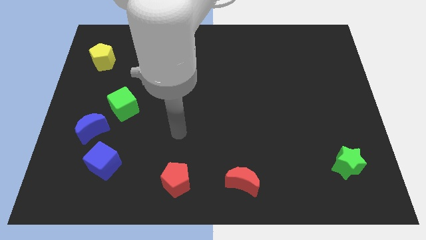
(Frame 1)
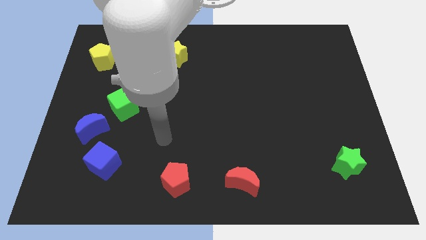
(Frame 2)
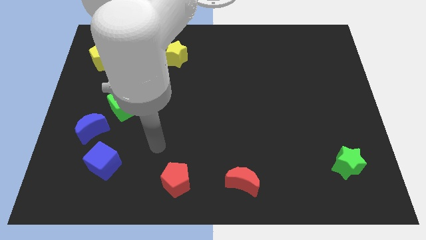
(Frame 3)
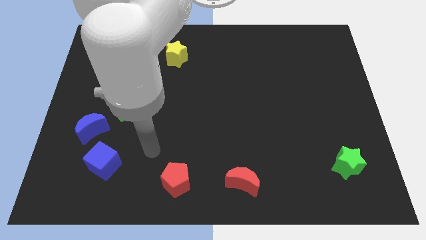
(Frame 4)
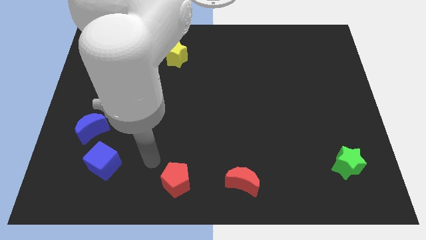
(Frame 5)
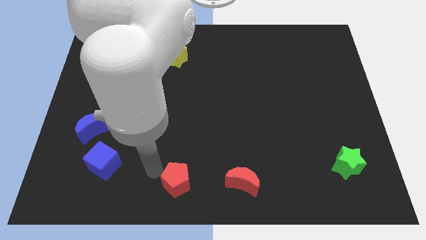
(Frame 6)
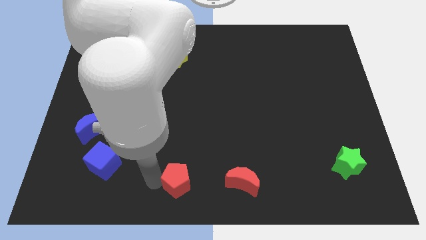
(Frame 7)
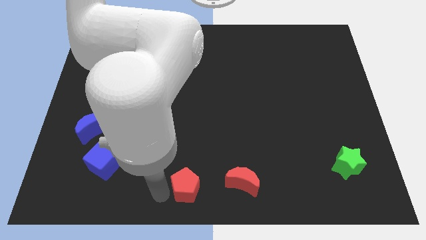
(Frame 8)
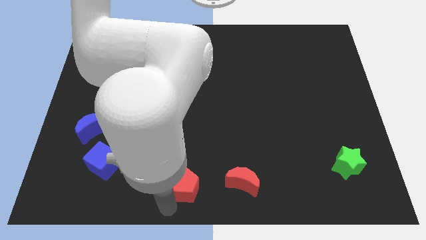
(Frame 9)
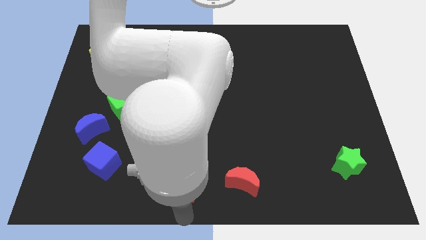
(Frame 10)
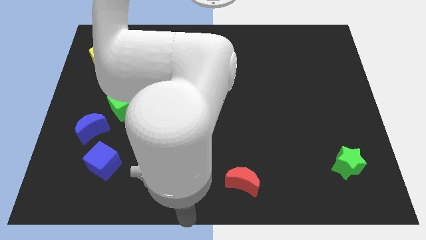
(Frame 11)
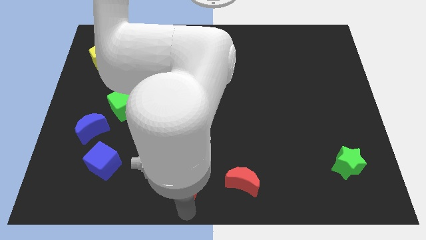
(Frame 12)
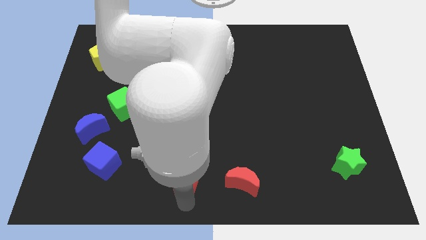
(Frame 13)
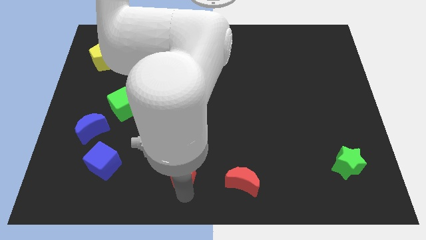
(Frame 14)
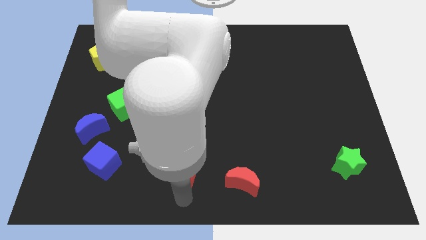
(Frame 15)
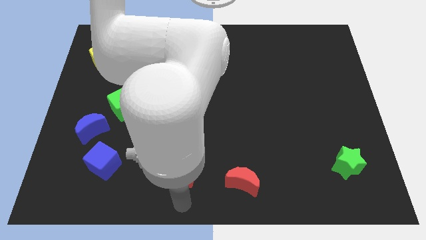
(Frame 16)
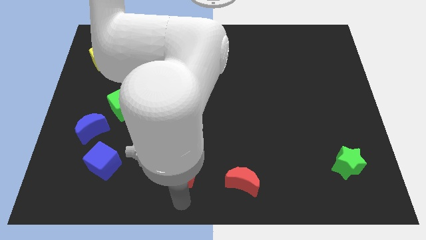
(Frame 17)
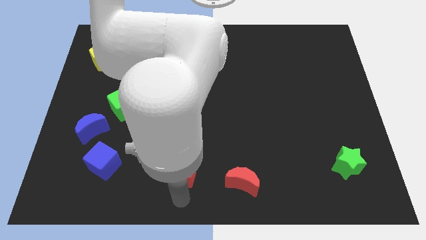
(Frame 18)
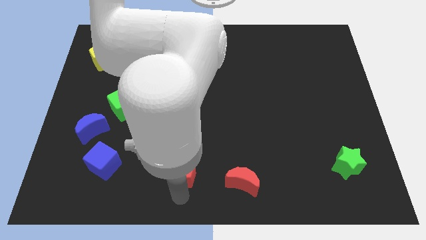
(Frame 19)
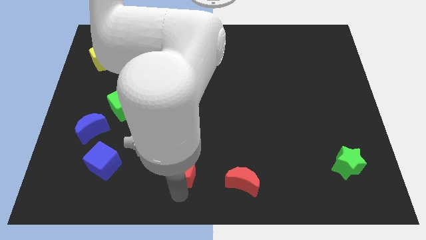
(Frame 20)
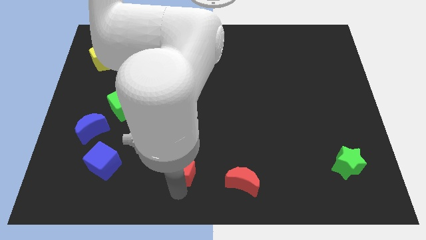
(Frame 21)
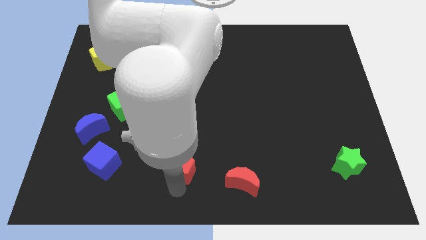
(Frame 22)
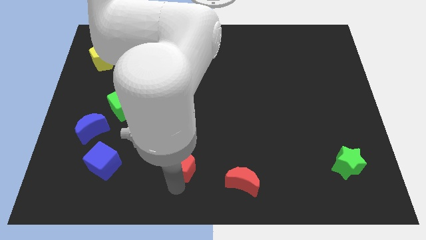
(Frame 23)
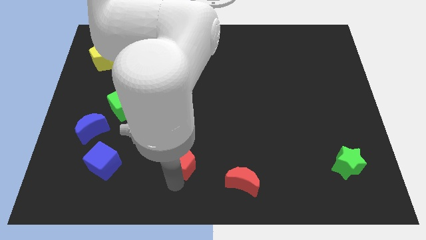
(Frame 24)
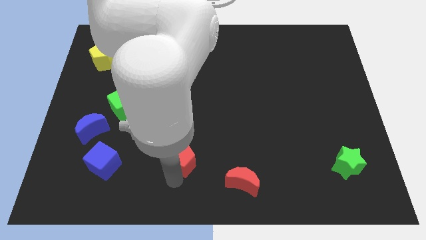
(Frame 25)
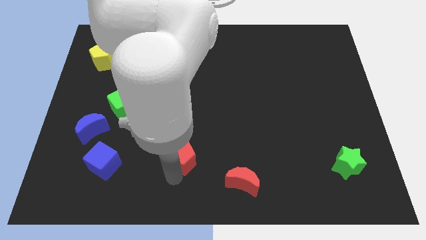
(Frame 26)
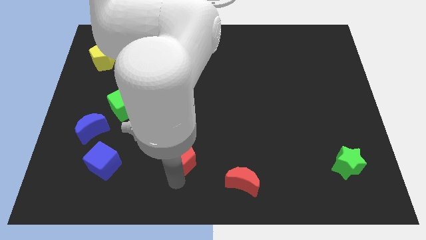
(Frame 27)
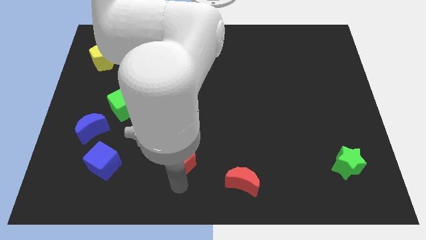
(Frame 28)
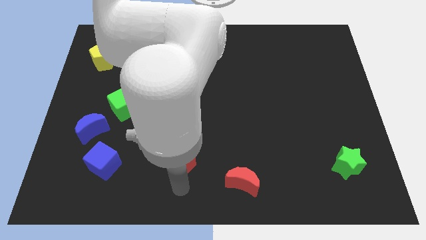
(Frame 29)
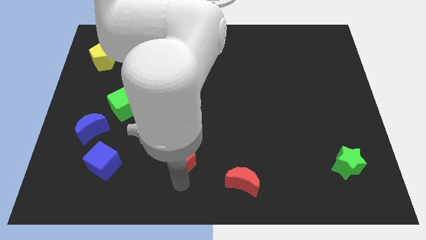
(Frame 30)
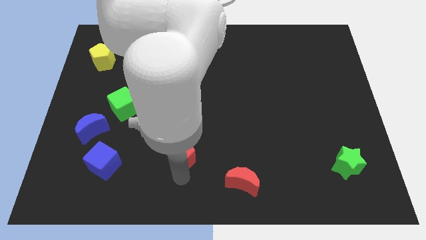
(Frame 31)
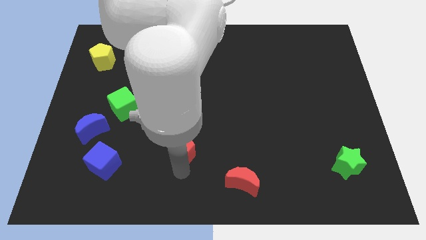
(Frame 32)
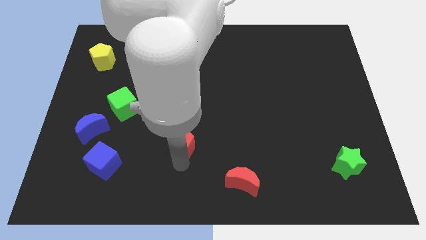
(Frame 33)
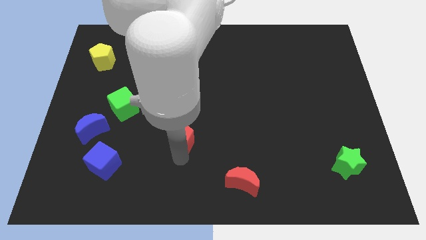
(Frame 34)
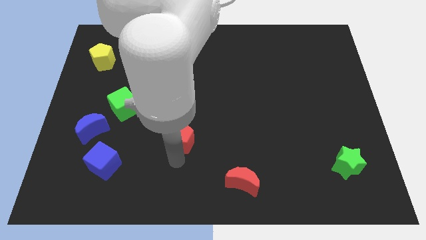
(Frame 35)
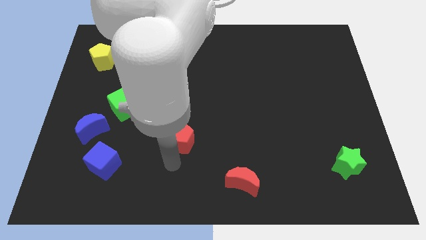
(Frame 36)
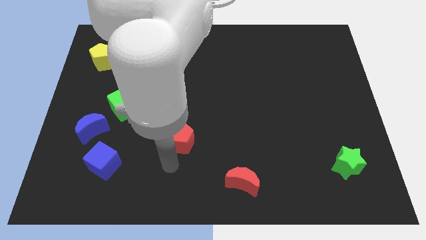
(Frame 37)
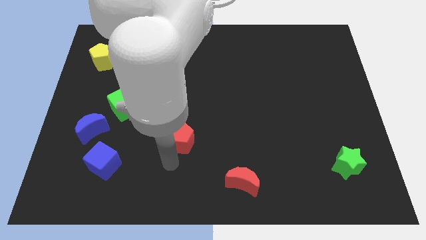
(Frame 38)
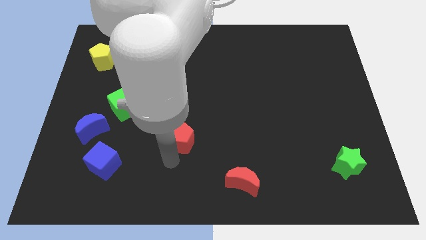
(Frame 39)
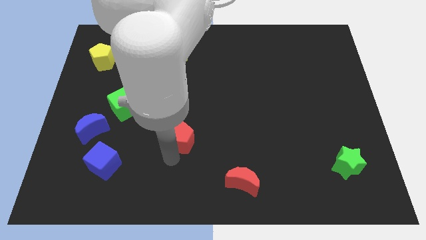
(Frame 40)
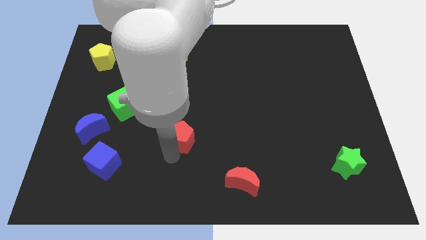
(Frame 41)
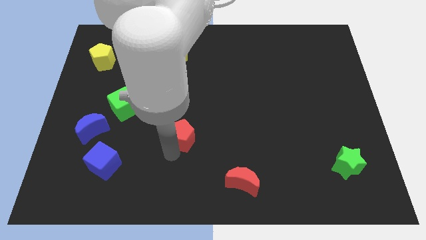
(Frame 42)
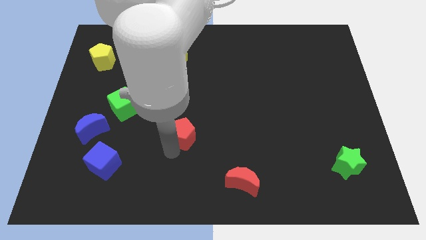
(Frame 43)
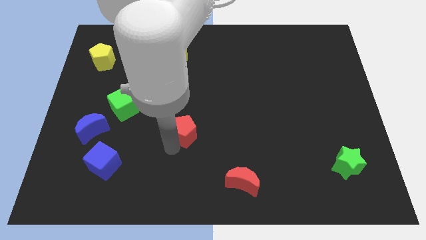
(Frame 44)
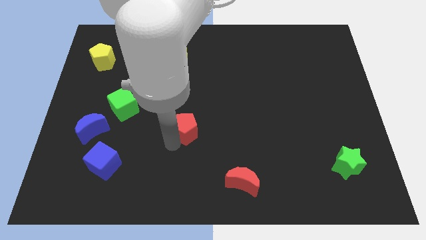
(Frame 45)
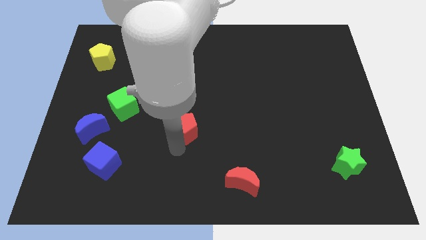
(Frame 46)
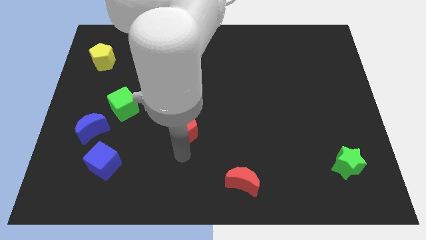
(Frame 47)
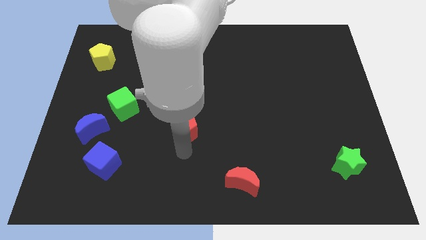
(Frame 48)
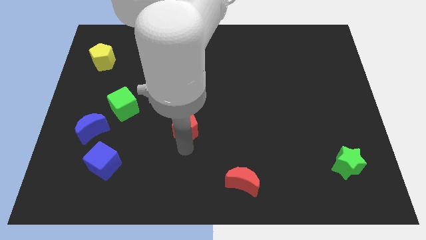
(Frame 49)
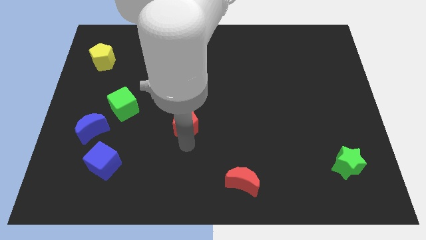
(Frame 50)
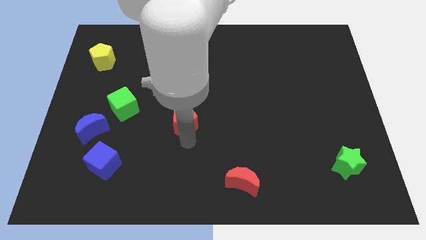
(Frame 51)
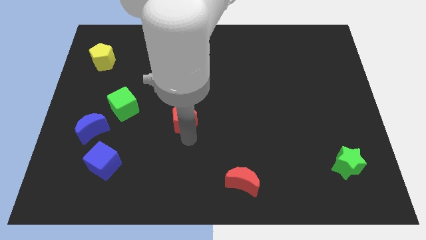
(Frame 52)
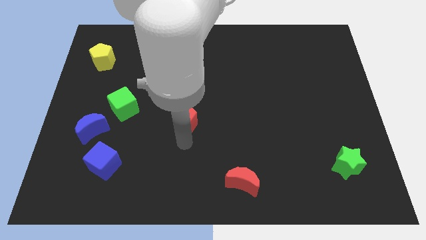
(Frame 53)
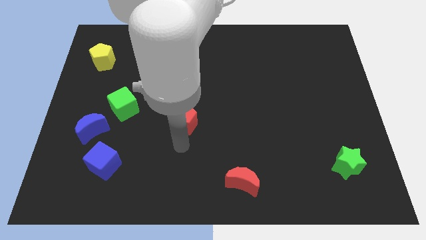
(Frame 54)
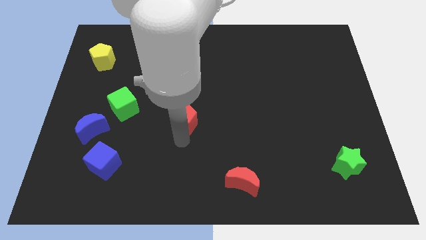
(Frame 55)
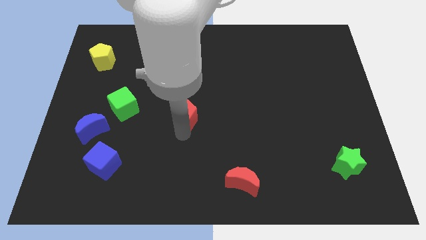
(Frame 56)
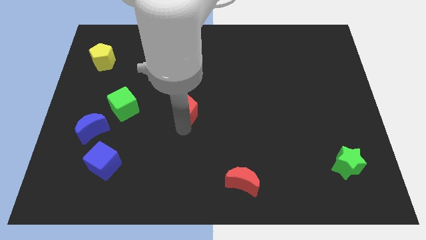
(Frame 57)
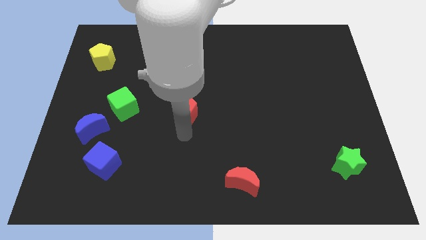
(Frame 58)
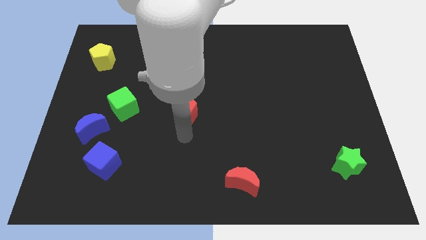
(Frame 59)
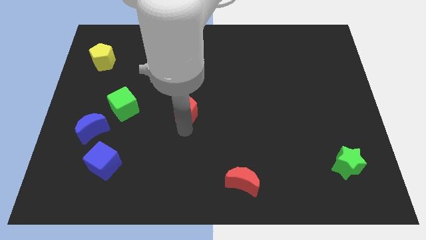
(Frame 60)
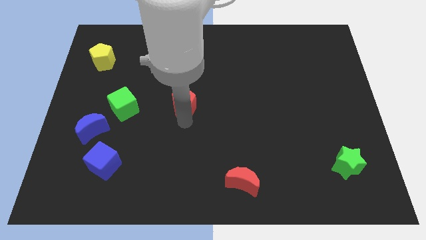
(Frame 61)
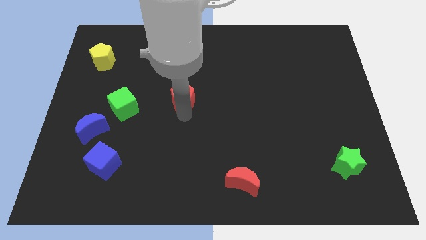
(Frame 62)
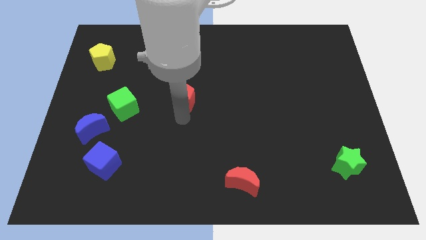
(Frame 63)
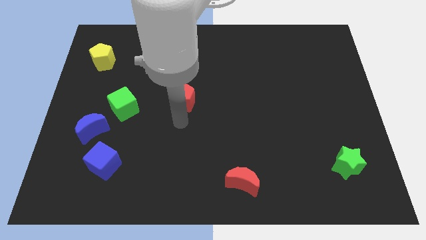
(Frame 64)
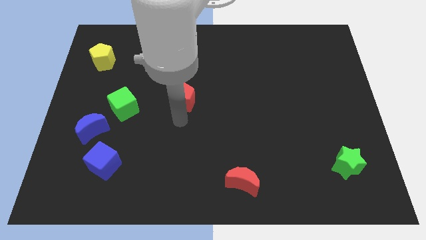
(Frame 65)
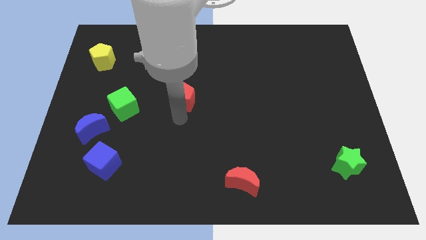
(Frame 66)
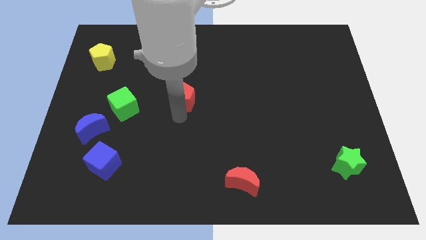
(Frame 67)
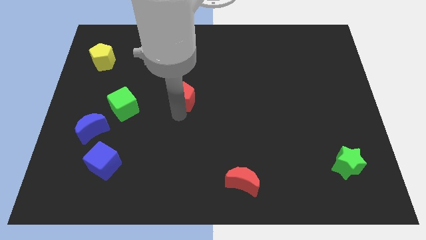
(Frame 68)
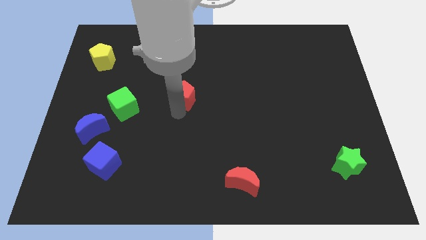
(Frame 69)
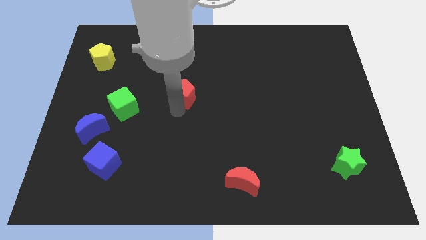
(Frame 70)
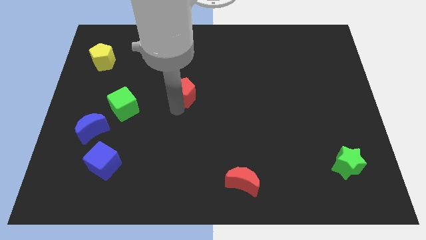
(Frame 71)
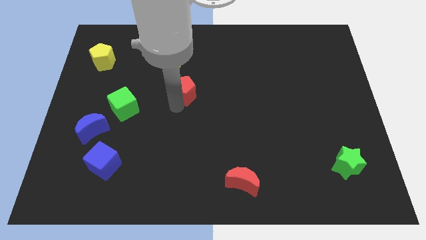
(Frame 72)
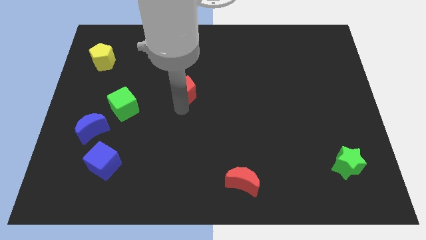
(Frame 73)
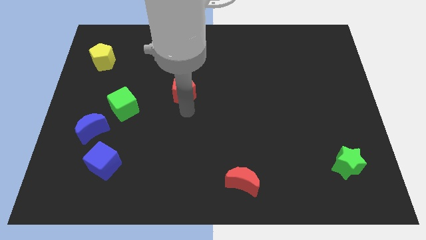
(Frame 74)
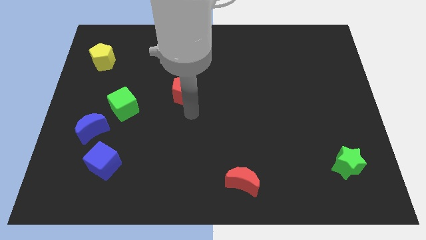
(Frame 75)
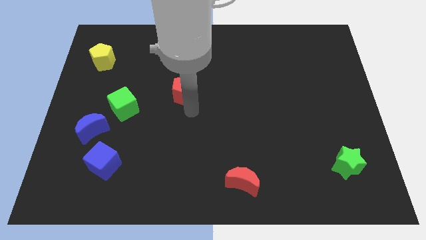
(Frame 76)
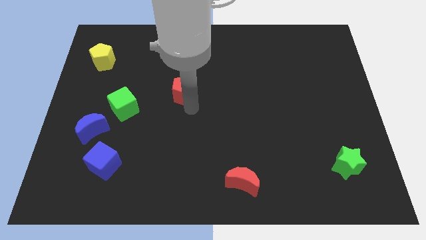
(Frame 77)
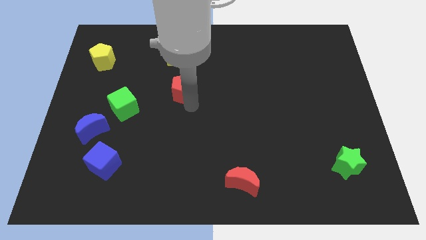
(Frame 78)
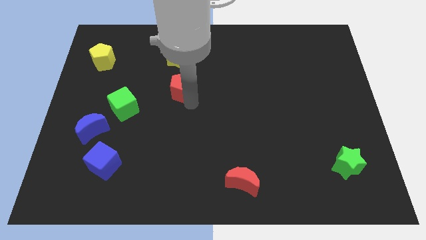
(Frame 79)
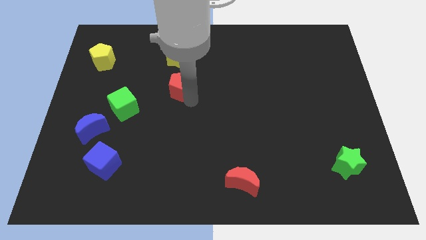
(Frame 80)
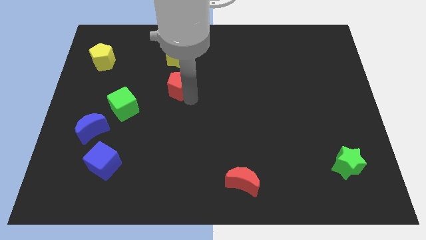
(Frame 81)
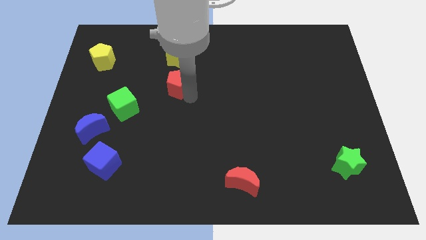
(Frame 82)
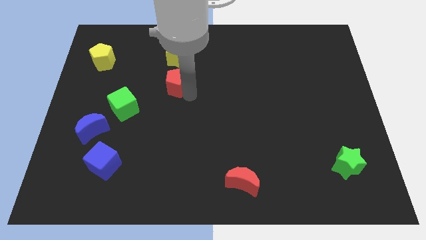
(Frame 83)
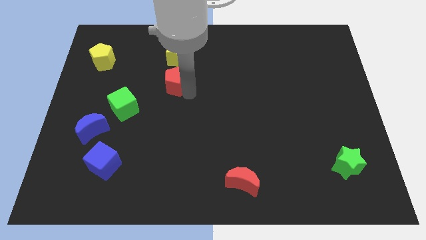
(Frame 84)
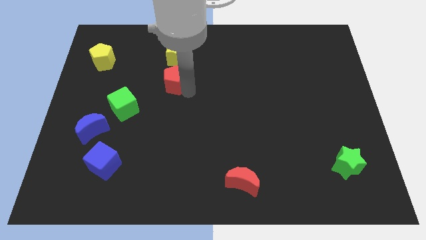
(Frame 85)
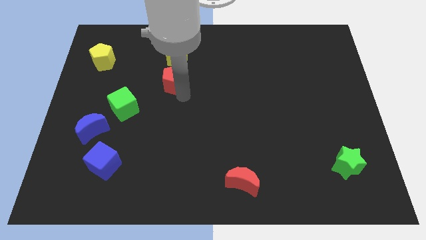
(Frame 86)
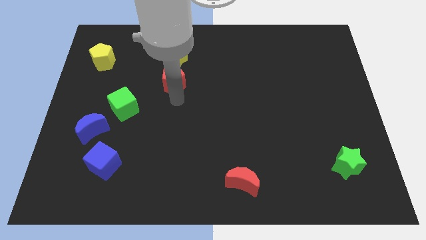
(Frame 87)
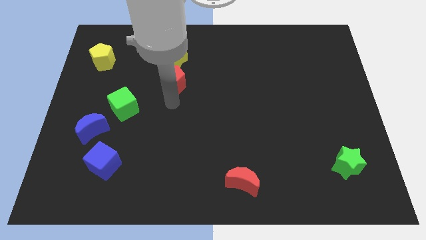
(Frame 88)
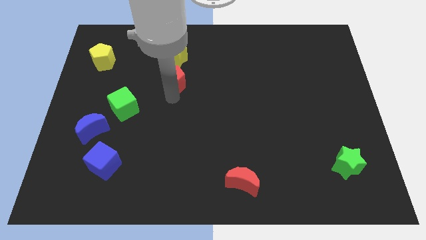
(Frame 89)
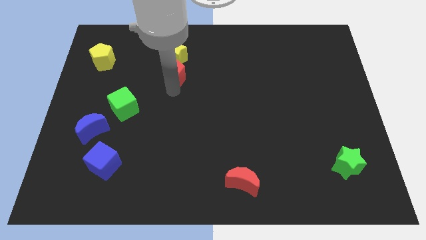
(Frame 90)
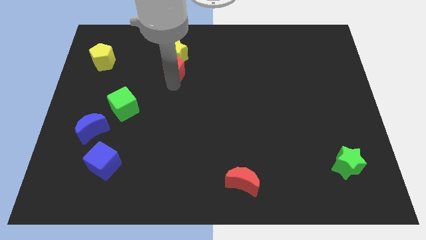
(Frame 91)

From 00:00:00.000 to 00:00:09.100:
slide the red pentagon towards the yellow star
